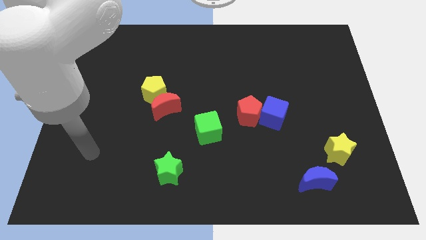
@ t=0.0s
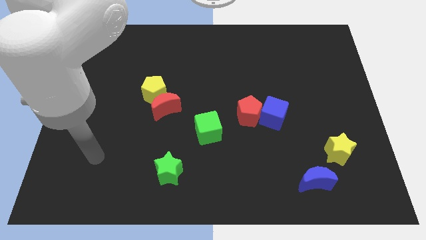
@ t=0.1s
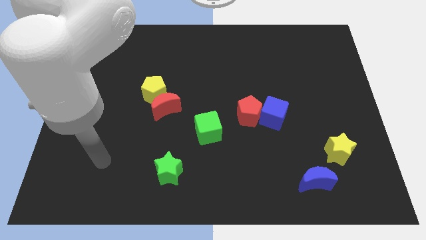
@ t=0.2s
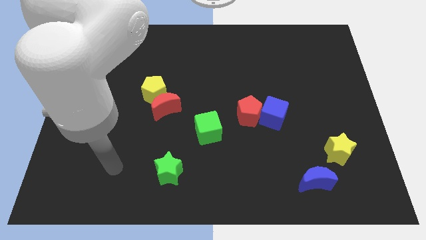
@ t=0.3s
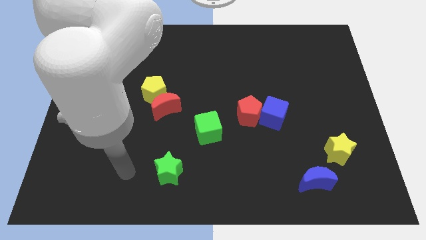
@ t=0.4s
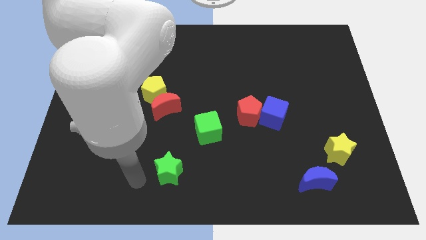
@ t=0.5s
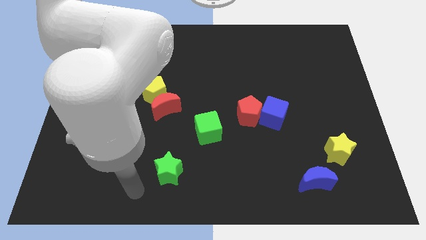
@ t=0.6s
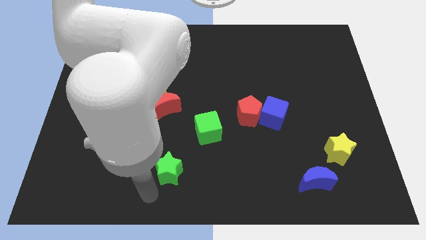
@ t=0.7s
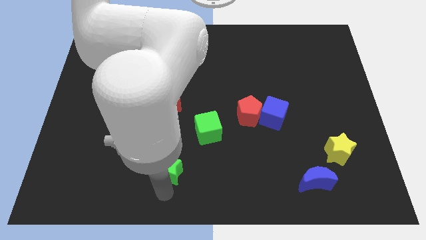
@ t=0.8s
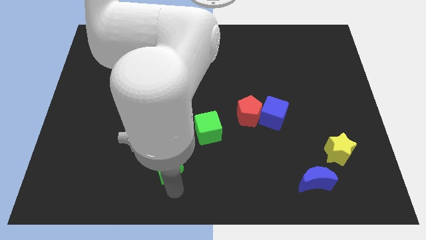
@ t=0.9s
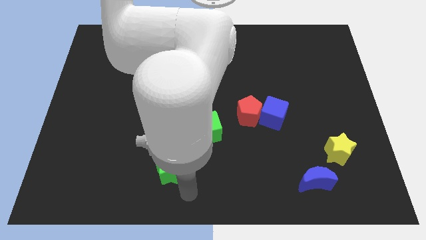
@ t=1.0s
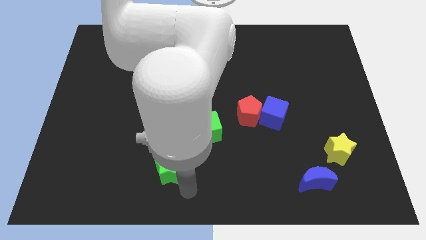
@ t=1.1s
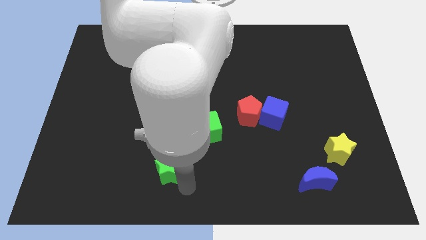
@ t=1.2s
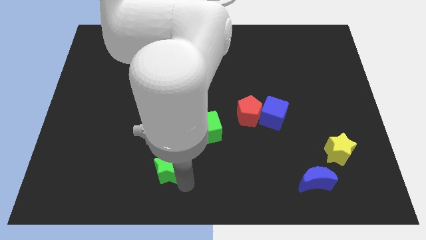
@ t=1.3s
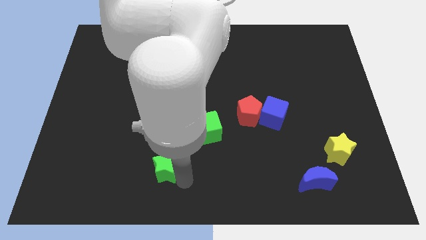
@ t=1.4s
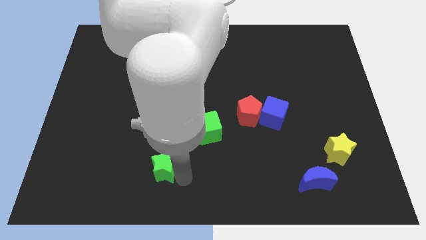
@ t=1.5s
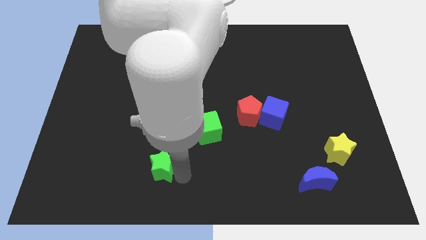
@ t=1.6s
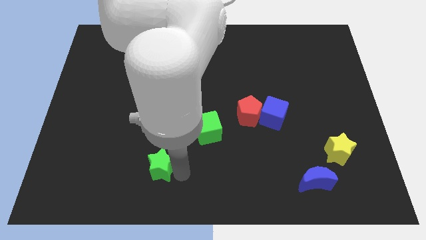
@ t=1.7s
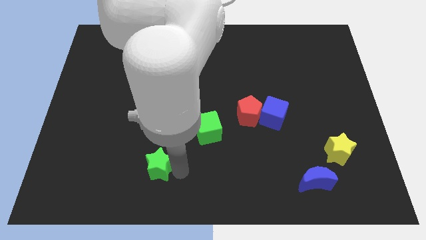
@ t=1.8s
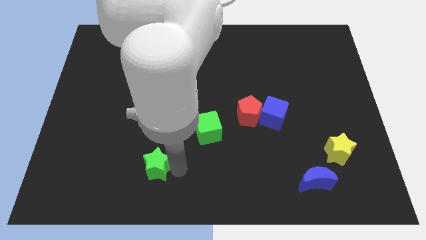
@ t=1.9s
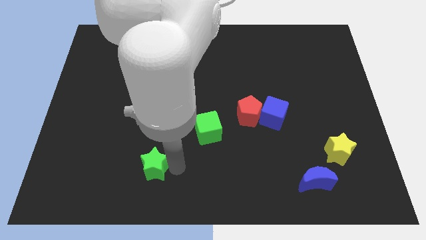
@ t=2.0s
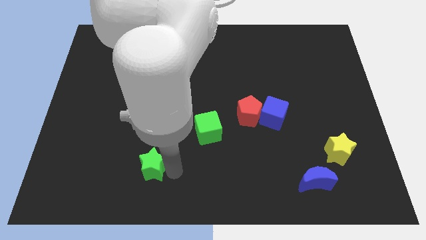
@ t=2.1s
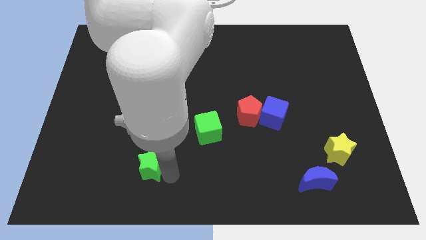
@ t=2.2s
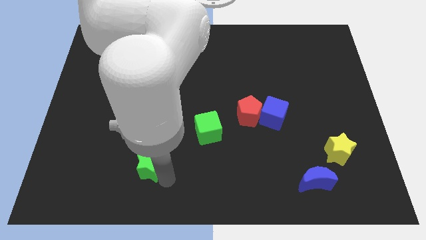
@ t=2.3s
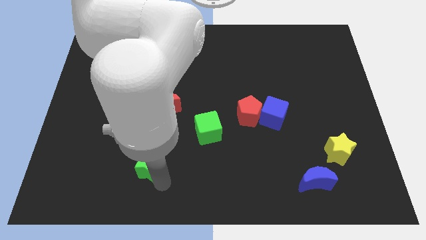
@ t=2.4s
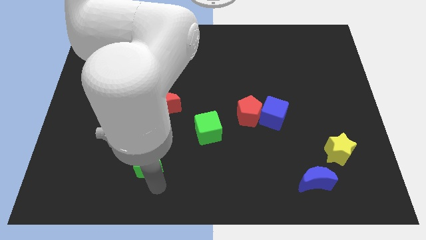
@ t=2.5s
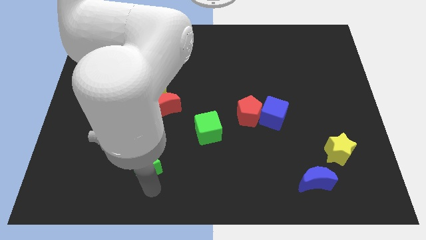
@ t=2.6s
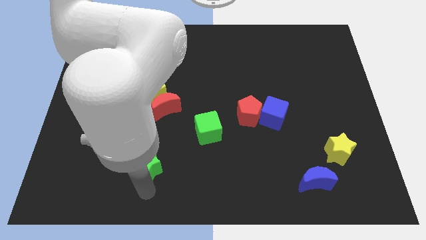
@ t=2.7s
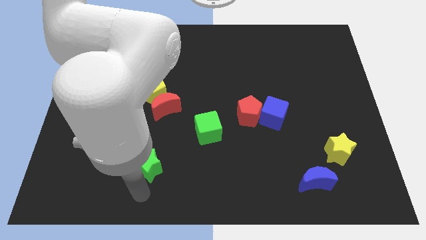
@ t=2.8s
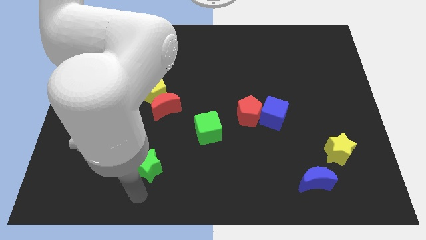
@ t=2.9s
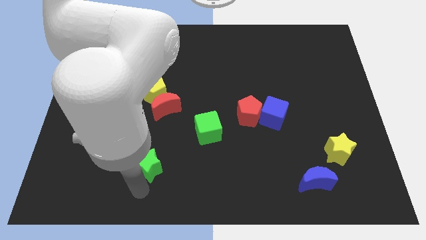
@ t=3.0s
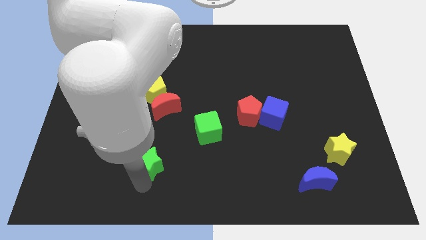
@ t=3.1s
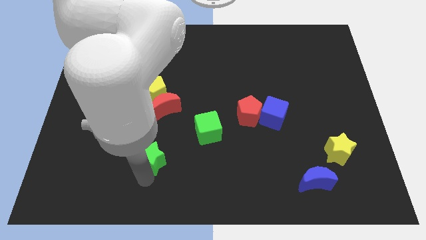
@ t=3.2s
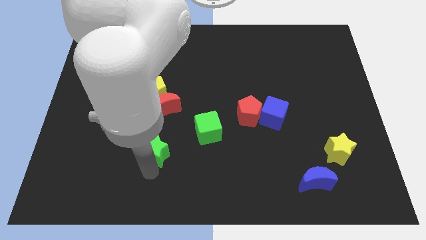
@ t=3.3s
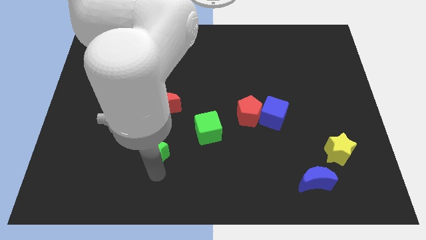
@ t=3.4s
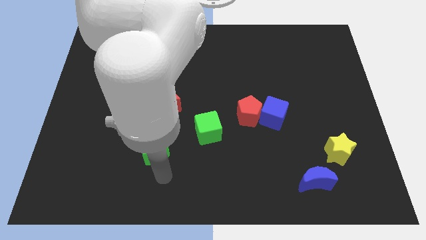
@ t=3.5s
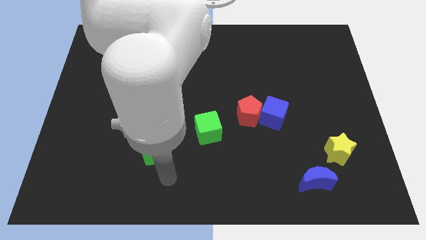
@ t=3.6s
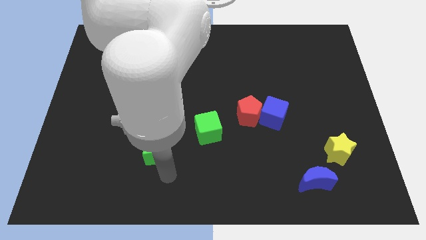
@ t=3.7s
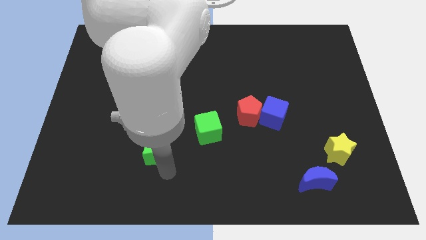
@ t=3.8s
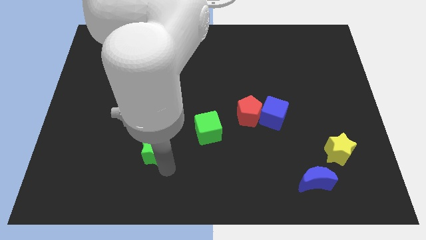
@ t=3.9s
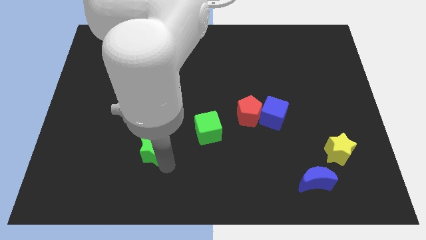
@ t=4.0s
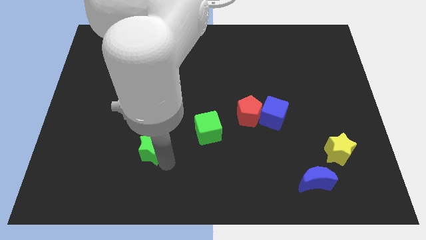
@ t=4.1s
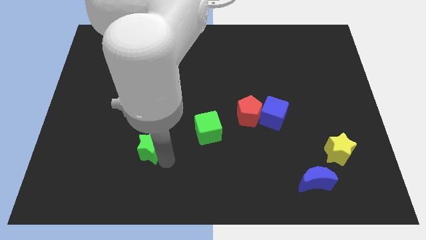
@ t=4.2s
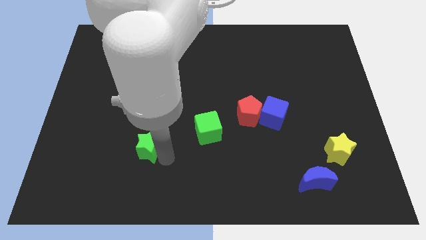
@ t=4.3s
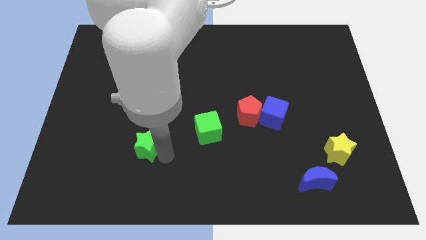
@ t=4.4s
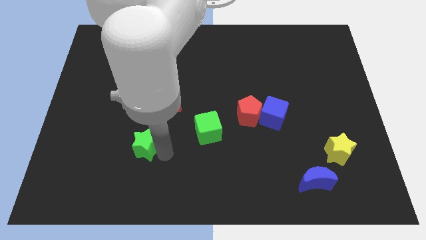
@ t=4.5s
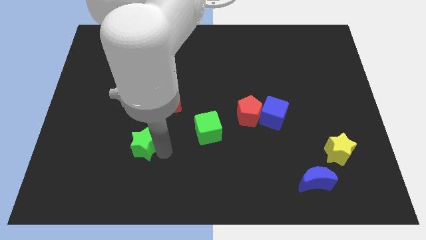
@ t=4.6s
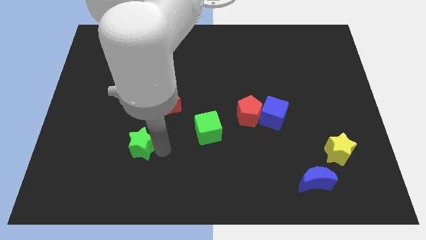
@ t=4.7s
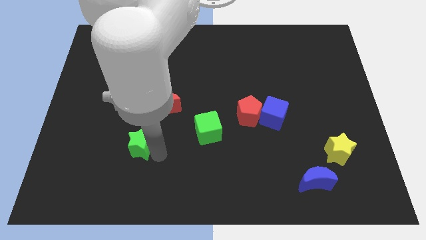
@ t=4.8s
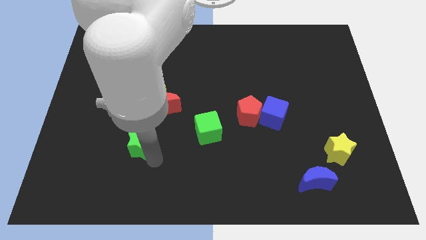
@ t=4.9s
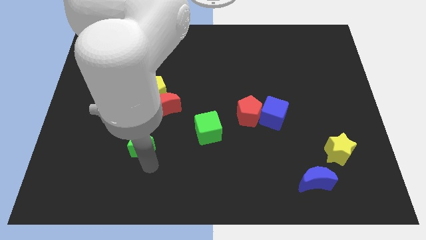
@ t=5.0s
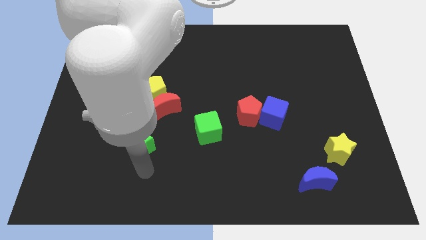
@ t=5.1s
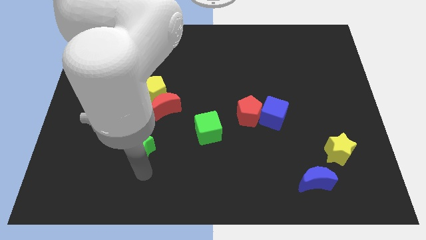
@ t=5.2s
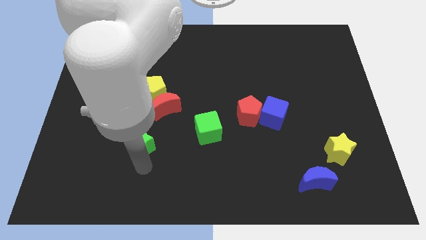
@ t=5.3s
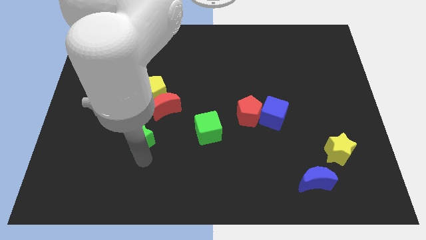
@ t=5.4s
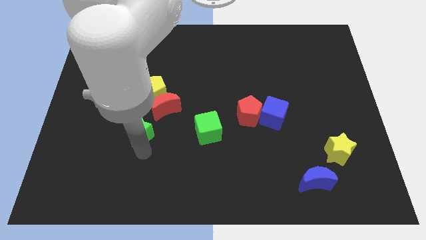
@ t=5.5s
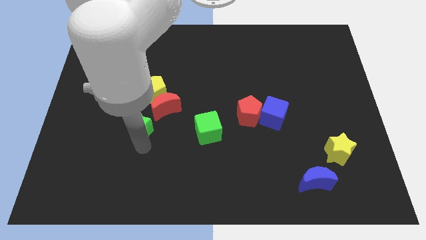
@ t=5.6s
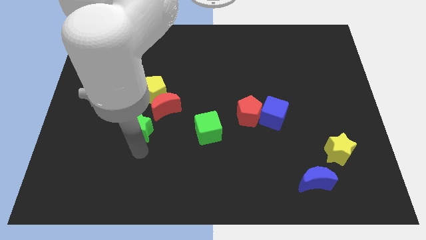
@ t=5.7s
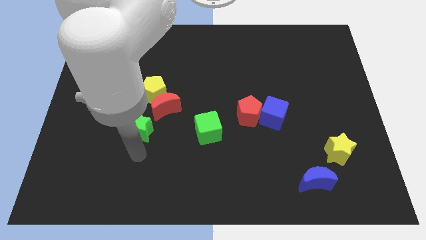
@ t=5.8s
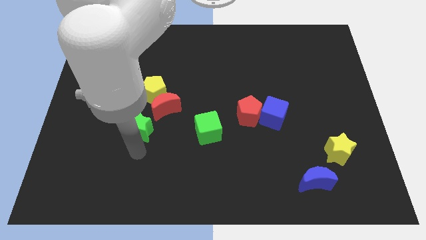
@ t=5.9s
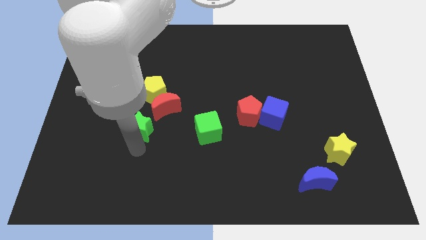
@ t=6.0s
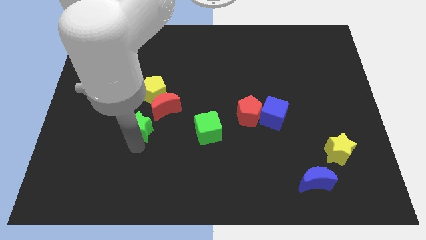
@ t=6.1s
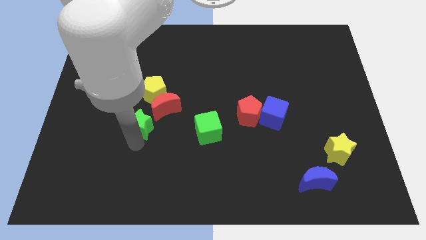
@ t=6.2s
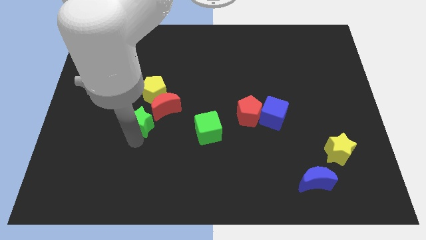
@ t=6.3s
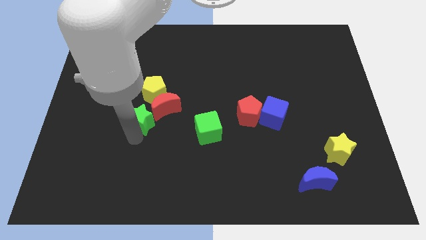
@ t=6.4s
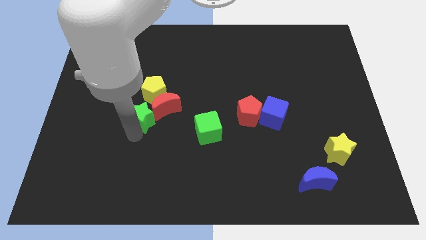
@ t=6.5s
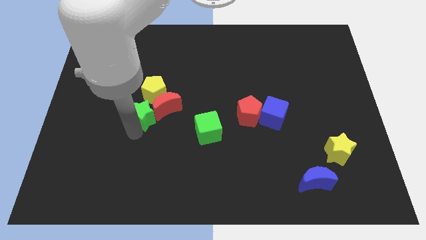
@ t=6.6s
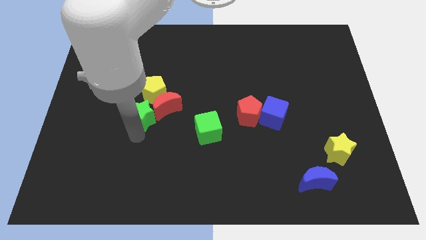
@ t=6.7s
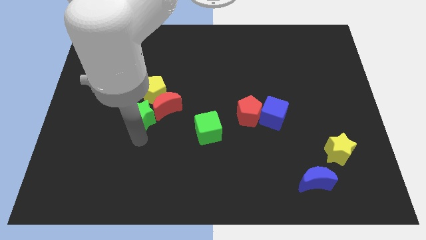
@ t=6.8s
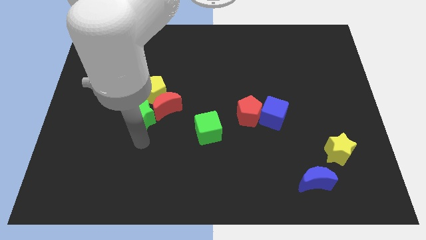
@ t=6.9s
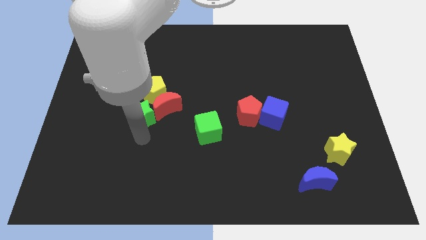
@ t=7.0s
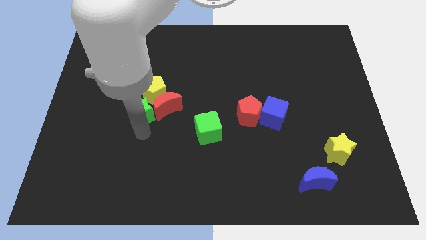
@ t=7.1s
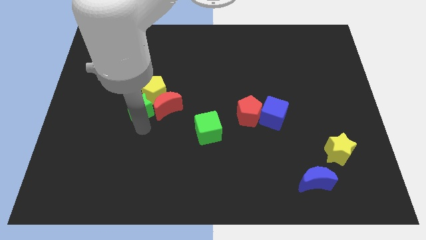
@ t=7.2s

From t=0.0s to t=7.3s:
put the green star towards the yellow pentagon
